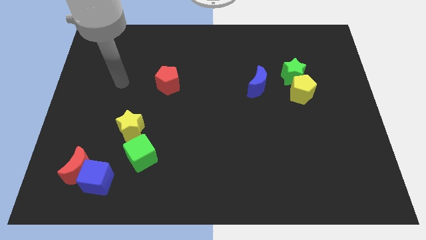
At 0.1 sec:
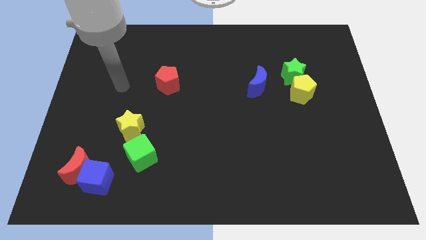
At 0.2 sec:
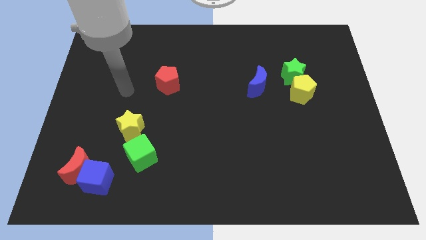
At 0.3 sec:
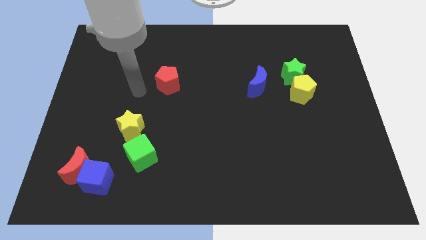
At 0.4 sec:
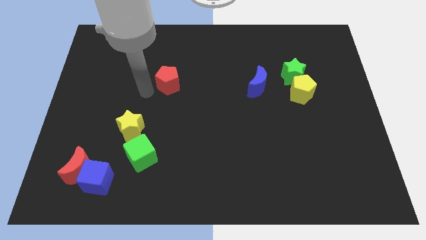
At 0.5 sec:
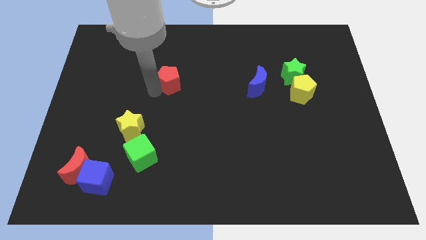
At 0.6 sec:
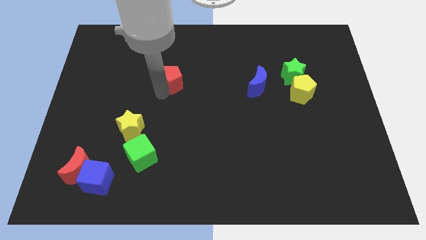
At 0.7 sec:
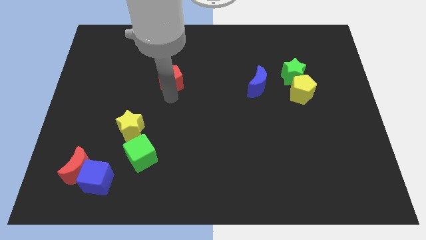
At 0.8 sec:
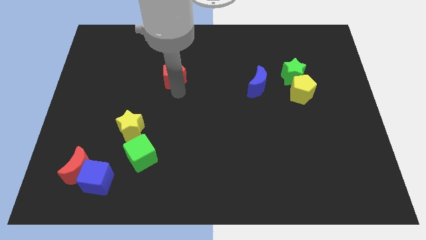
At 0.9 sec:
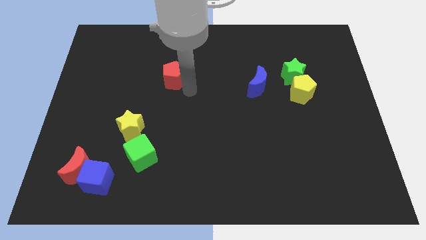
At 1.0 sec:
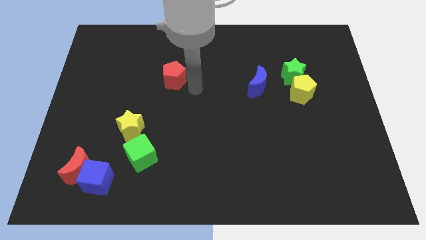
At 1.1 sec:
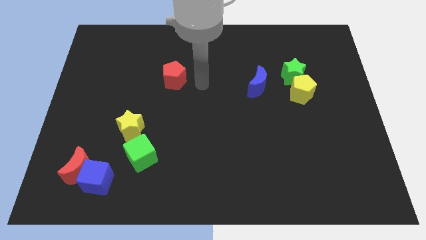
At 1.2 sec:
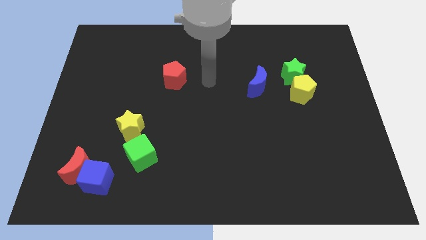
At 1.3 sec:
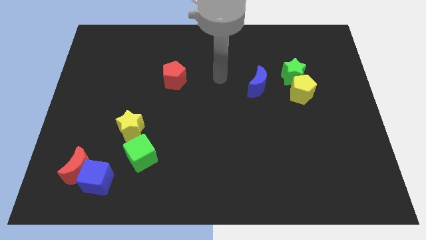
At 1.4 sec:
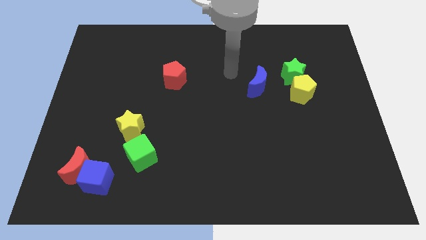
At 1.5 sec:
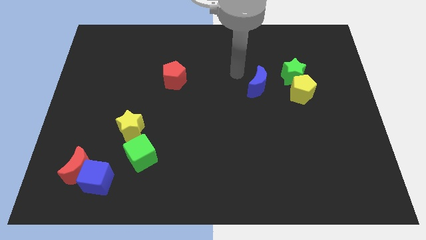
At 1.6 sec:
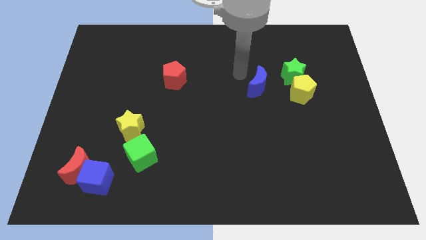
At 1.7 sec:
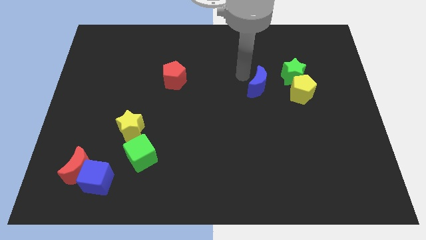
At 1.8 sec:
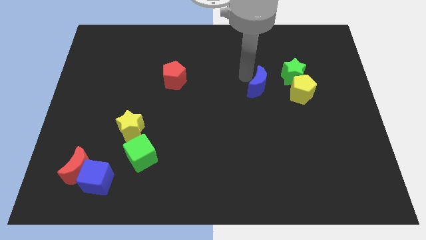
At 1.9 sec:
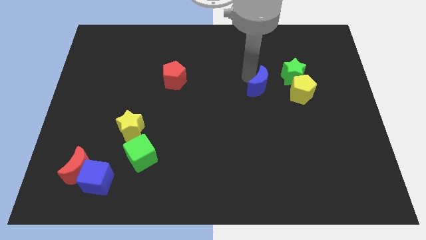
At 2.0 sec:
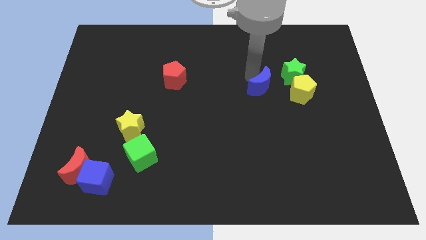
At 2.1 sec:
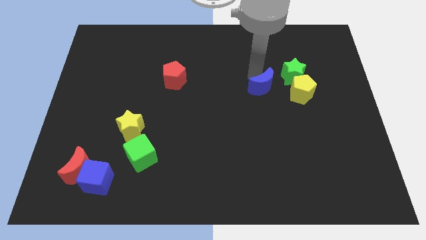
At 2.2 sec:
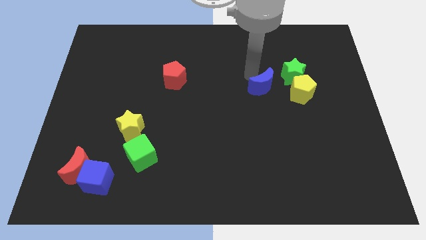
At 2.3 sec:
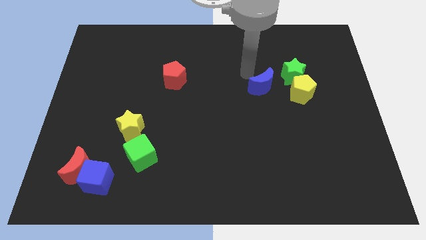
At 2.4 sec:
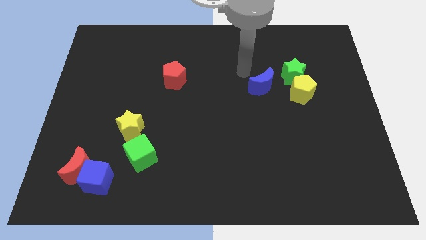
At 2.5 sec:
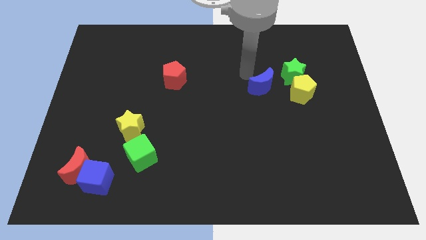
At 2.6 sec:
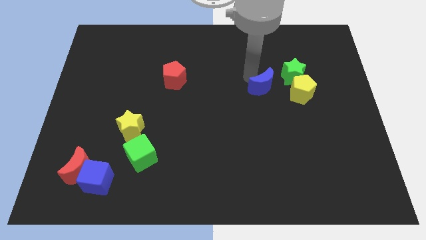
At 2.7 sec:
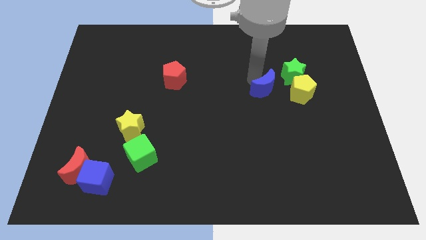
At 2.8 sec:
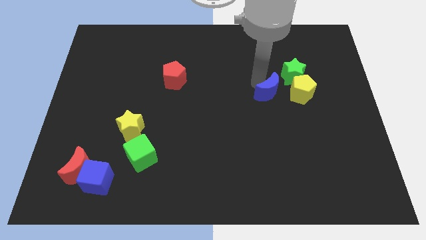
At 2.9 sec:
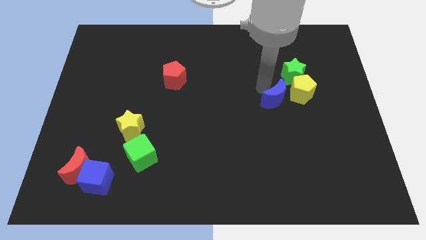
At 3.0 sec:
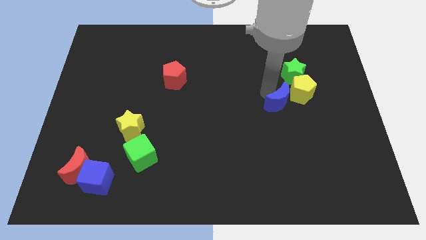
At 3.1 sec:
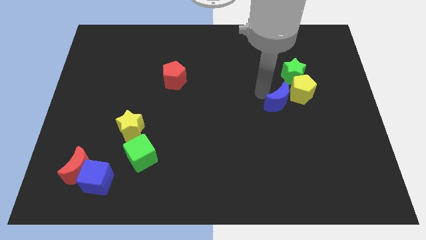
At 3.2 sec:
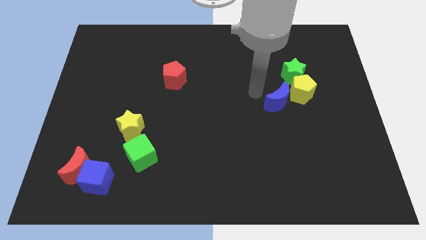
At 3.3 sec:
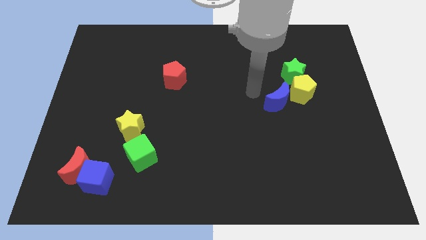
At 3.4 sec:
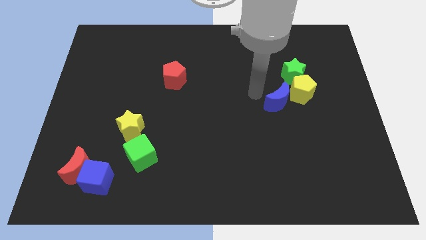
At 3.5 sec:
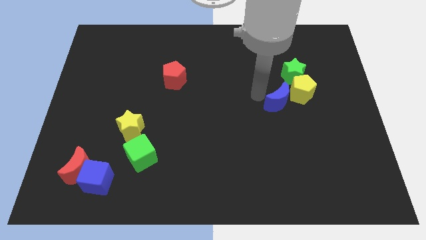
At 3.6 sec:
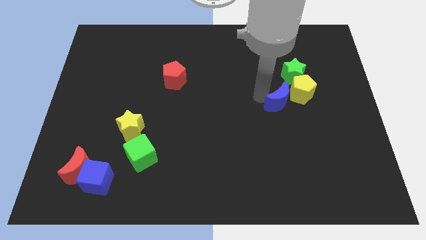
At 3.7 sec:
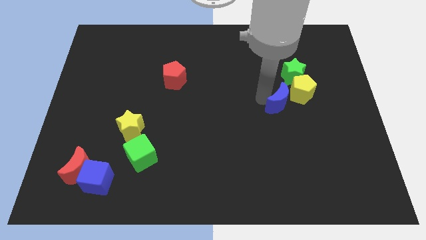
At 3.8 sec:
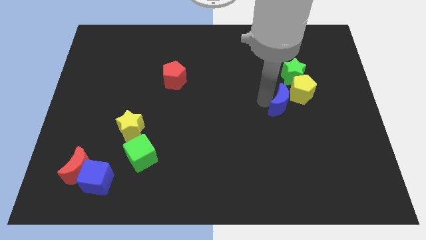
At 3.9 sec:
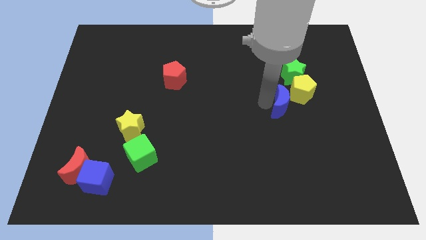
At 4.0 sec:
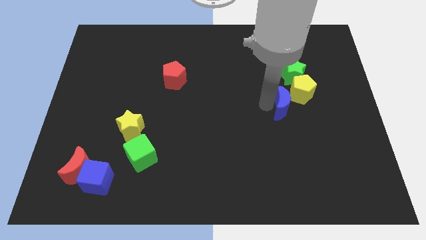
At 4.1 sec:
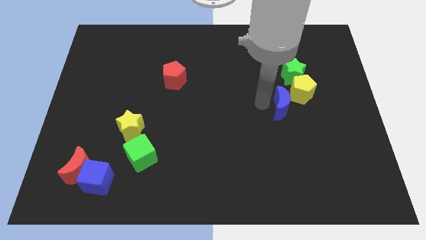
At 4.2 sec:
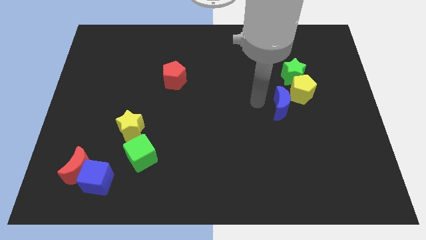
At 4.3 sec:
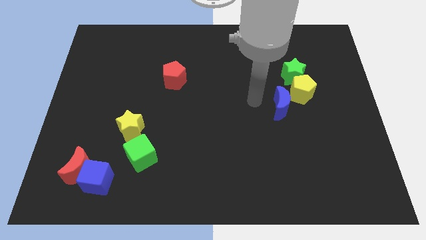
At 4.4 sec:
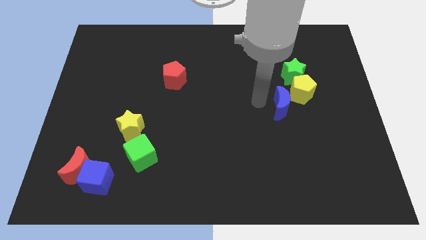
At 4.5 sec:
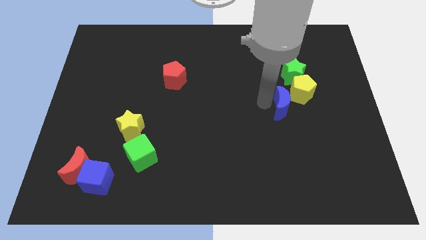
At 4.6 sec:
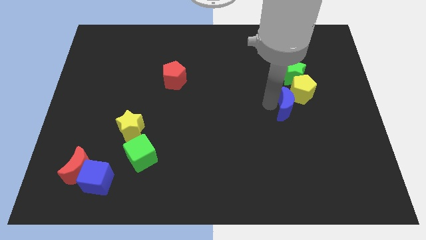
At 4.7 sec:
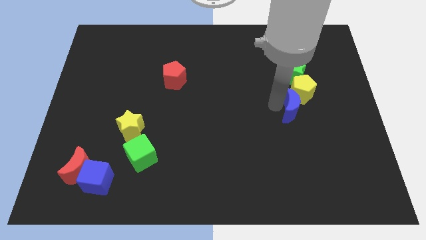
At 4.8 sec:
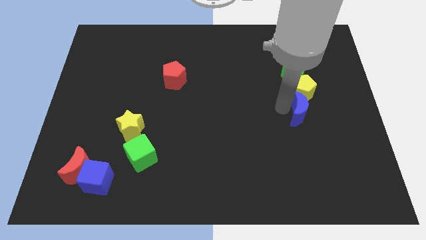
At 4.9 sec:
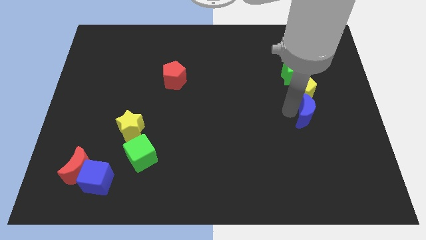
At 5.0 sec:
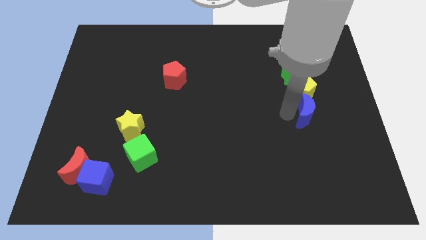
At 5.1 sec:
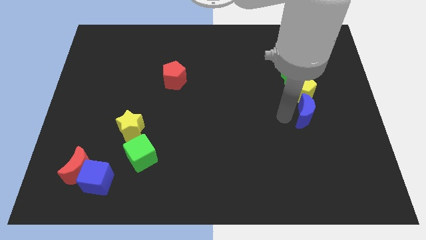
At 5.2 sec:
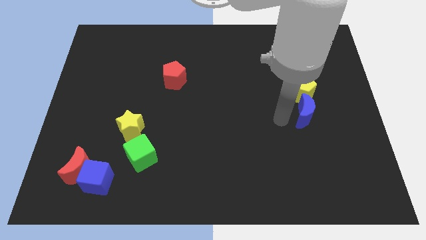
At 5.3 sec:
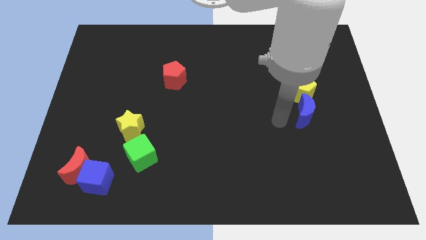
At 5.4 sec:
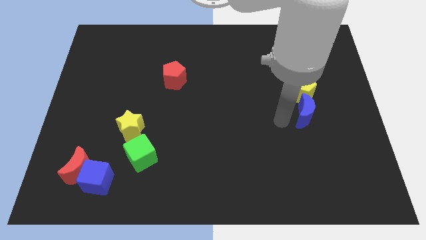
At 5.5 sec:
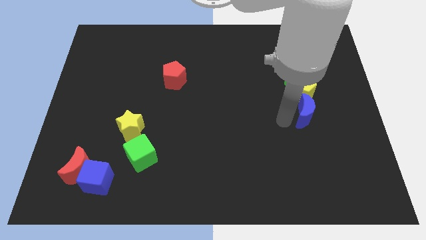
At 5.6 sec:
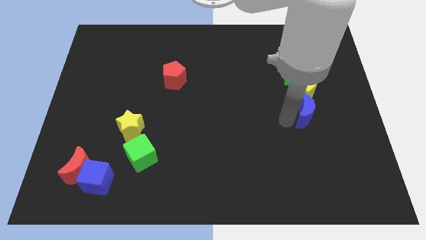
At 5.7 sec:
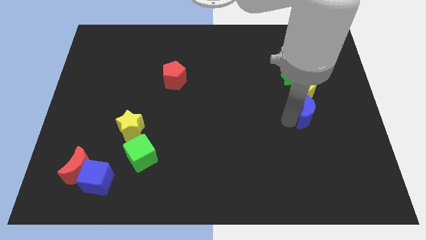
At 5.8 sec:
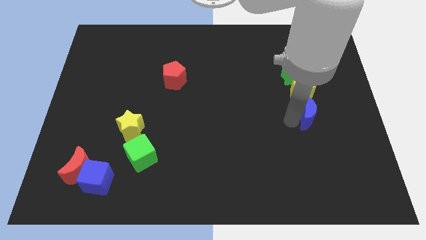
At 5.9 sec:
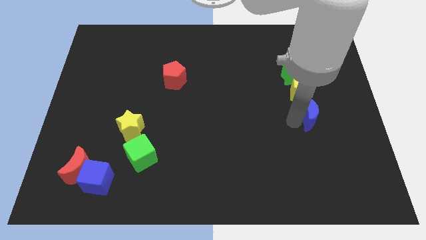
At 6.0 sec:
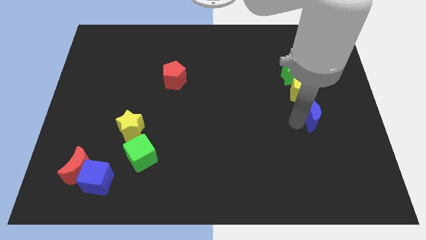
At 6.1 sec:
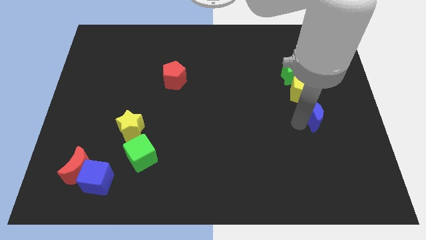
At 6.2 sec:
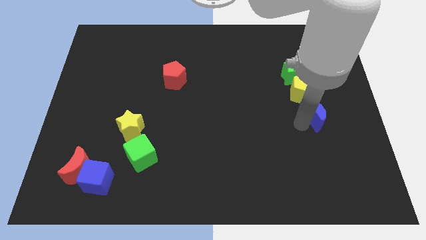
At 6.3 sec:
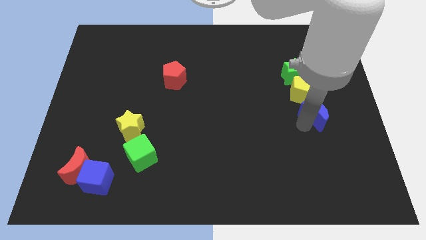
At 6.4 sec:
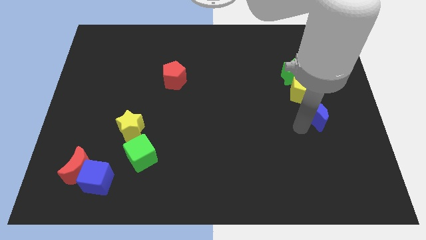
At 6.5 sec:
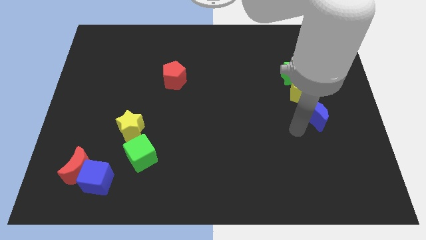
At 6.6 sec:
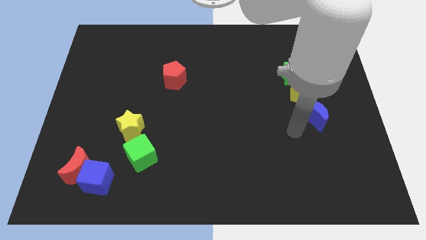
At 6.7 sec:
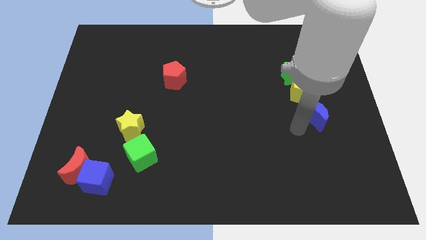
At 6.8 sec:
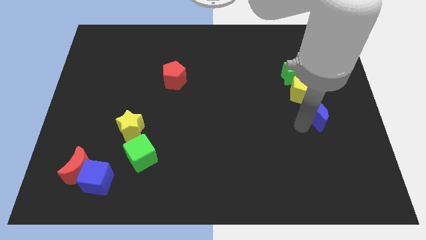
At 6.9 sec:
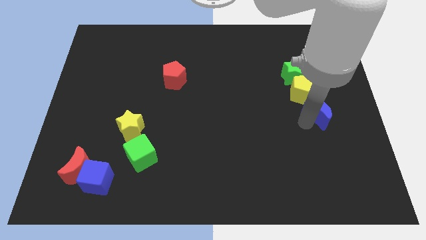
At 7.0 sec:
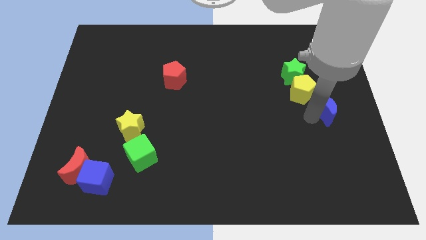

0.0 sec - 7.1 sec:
move the blue moon to the right side of the board
